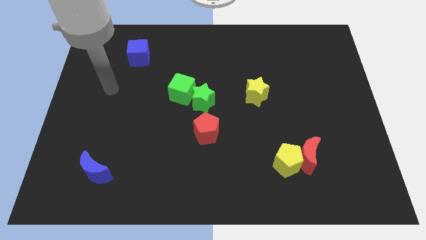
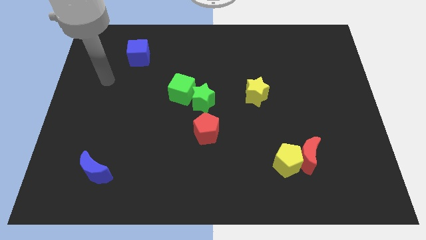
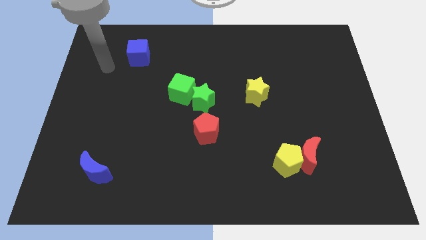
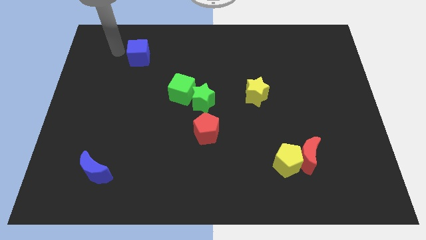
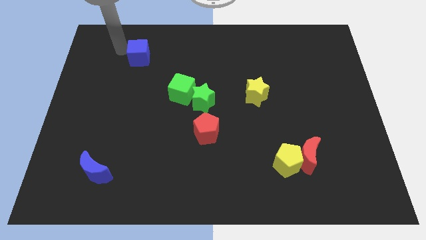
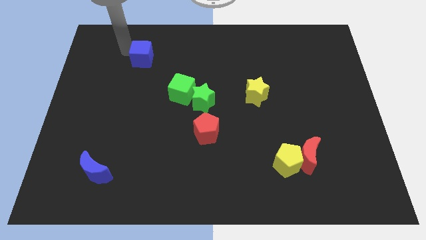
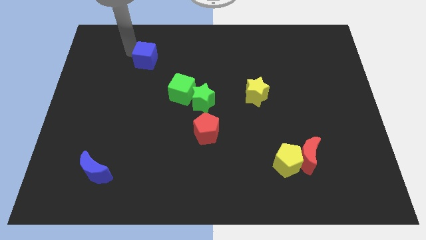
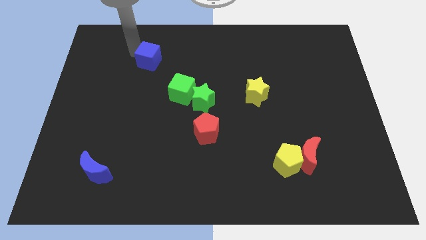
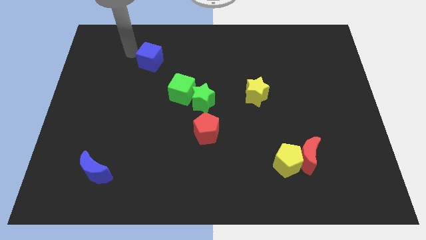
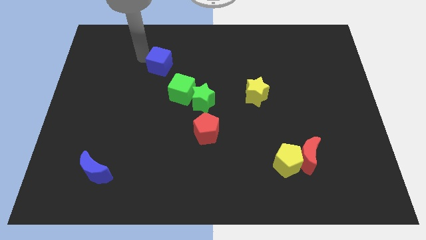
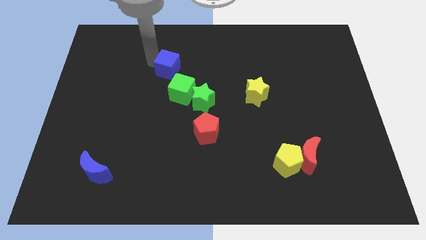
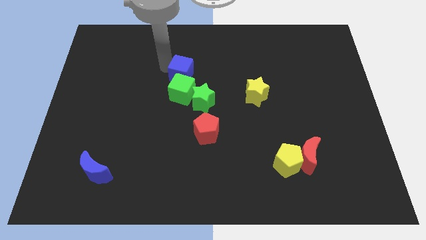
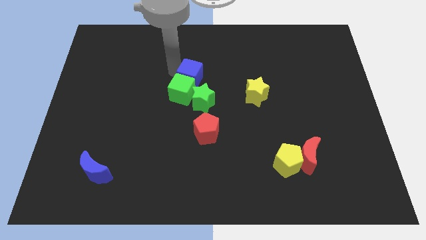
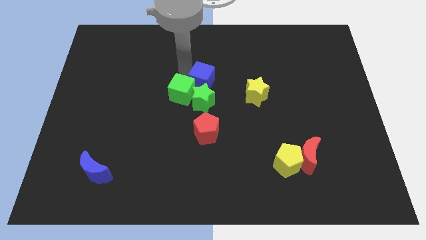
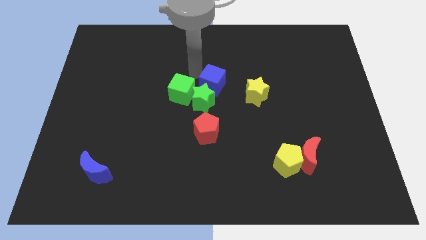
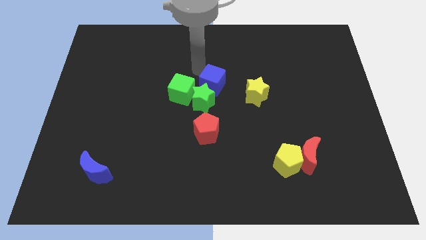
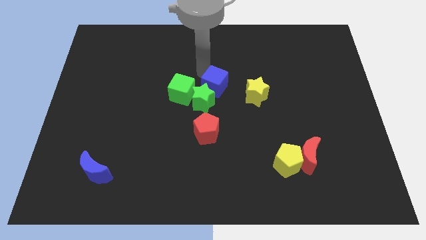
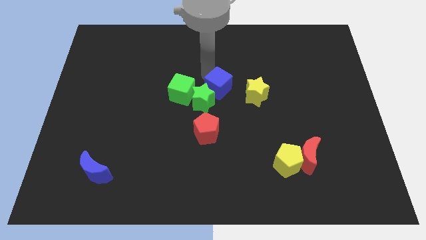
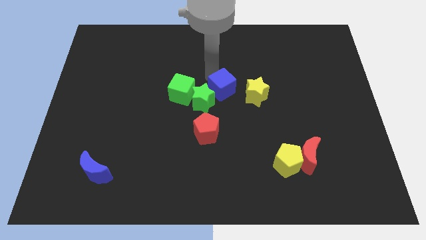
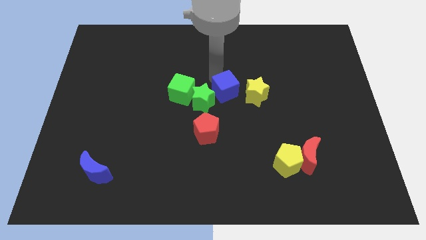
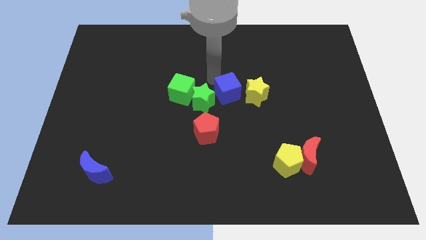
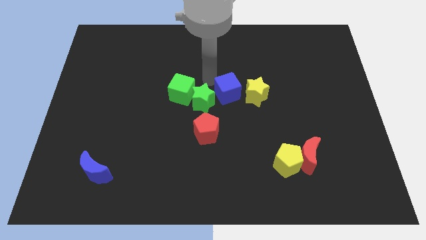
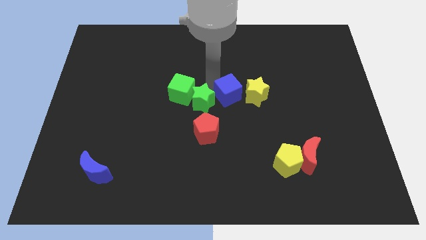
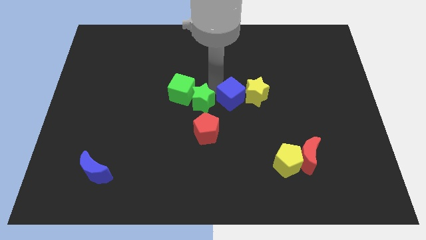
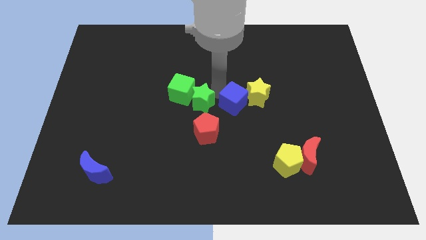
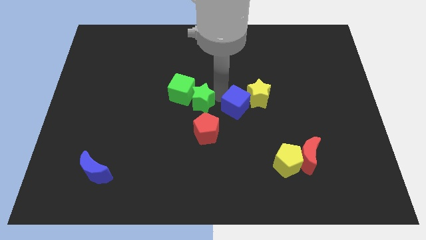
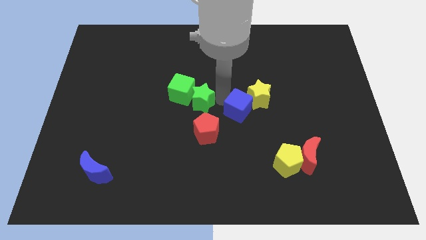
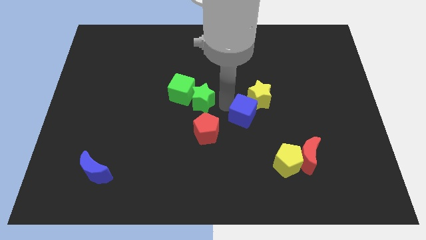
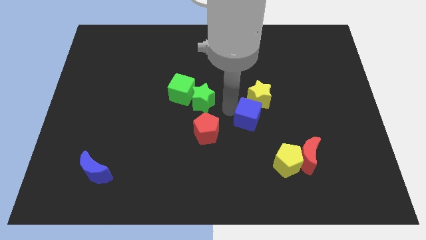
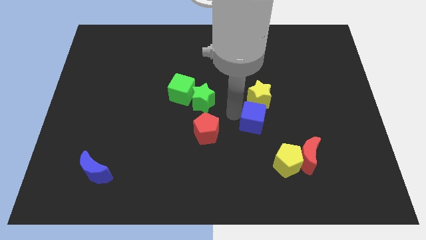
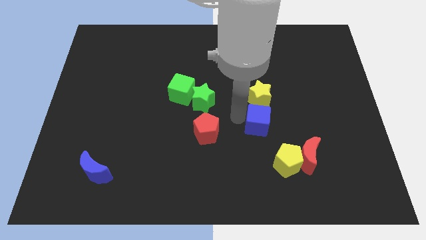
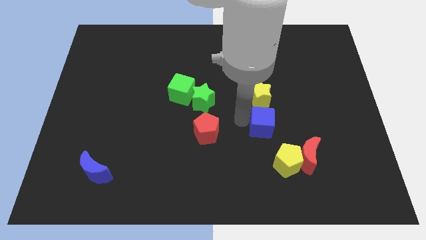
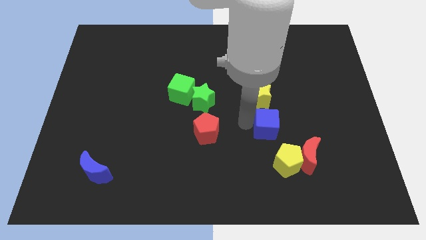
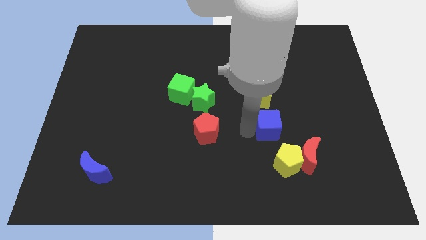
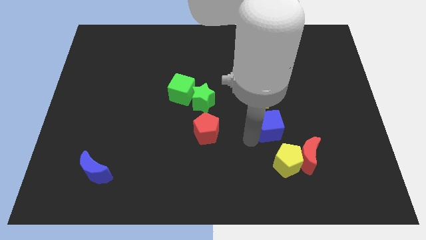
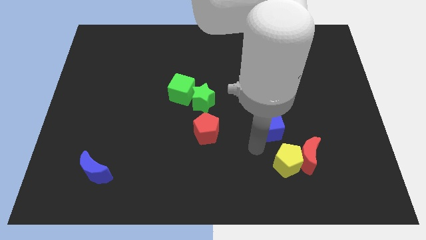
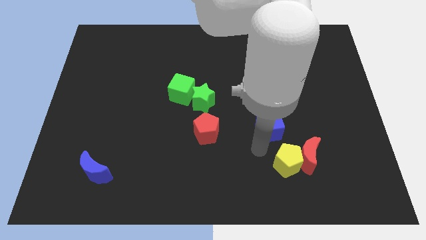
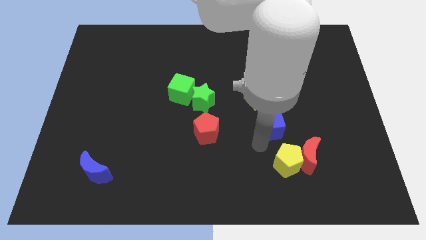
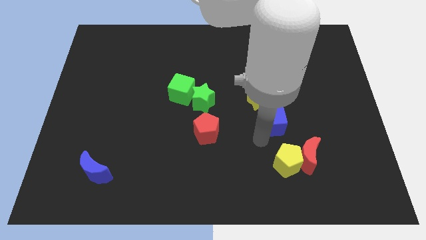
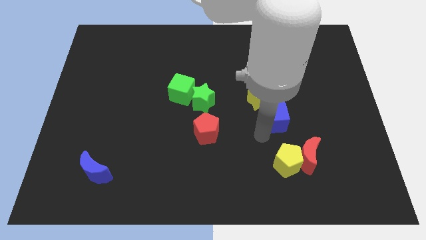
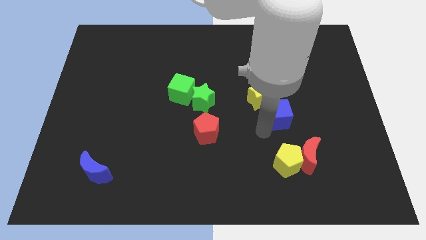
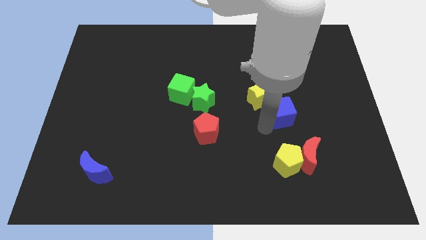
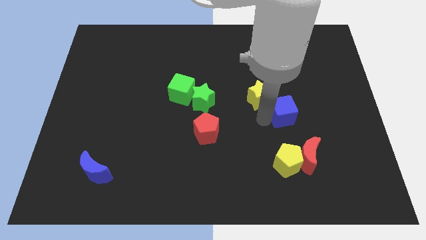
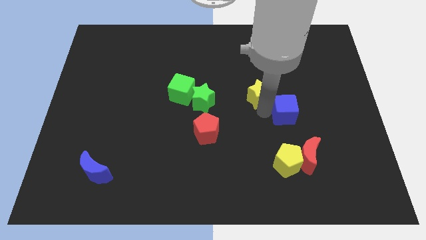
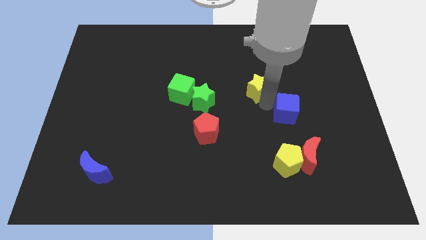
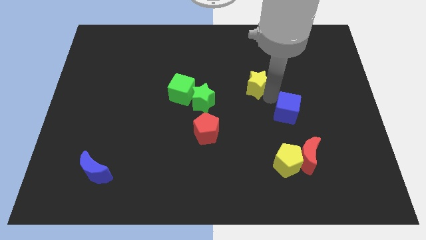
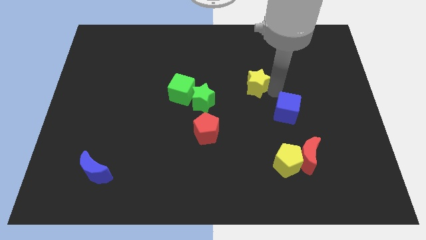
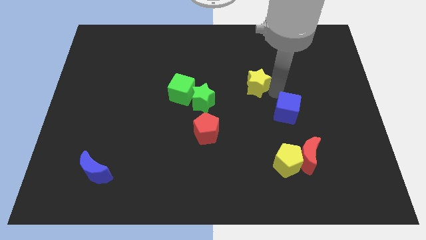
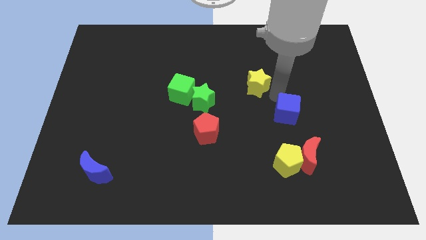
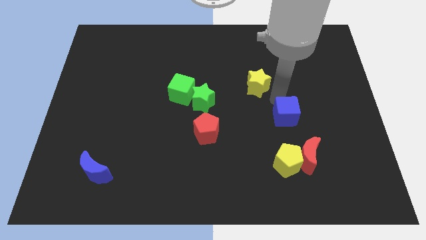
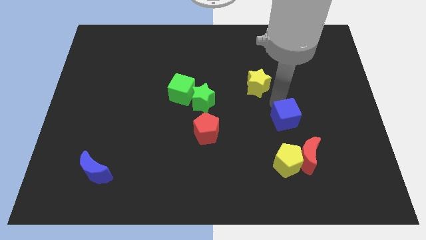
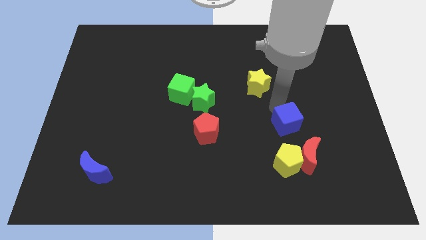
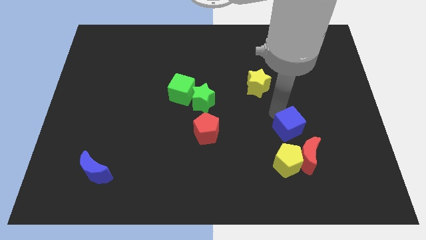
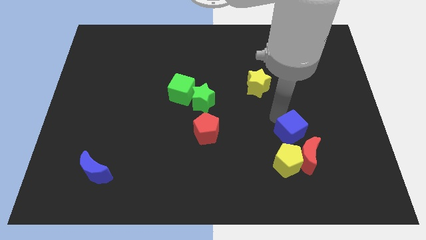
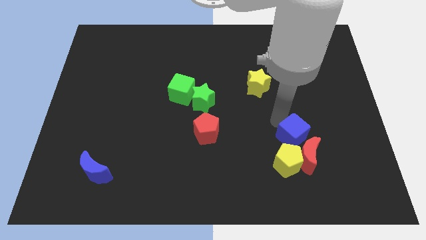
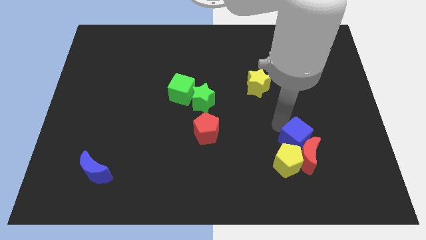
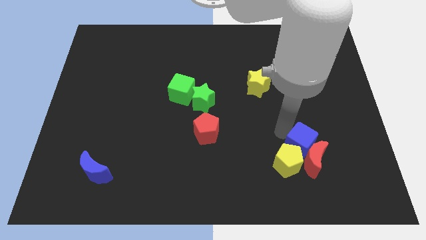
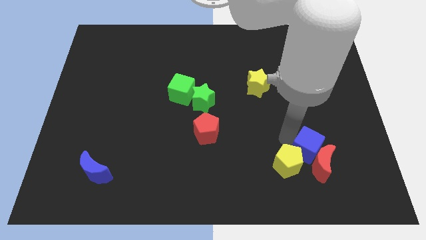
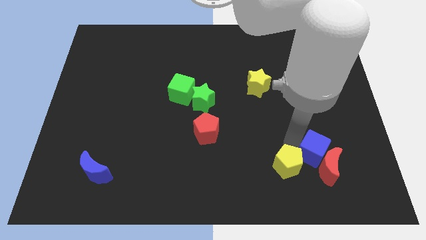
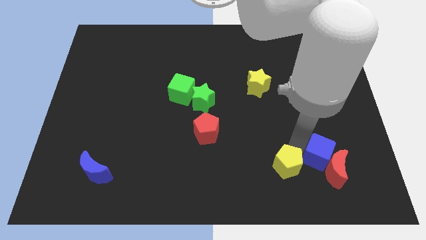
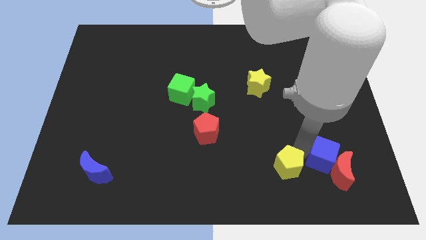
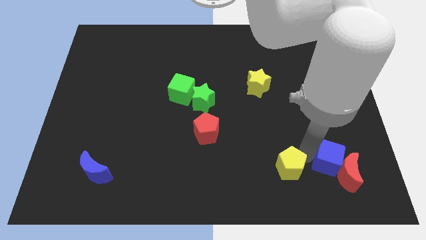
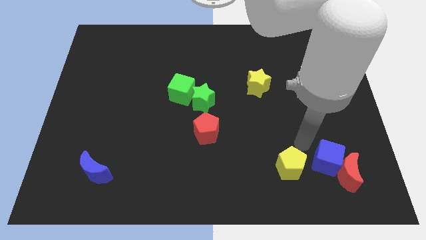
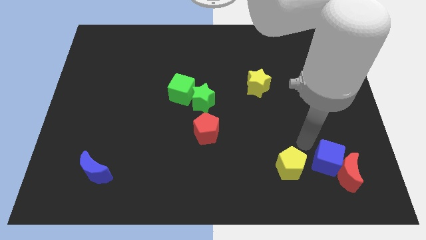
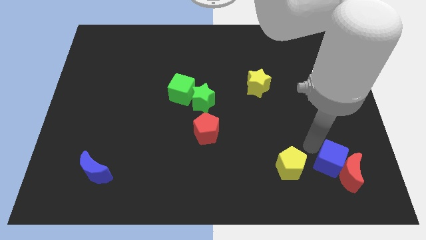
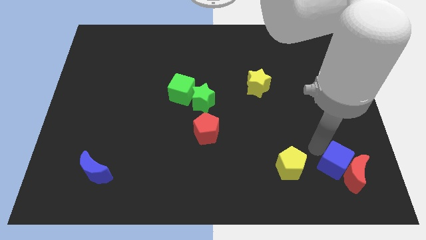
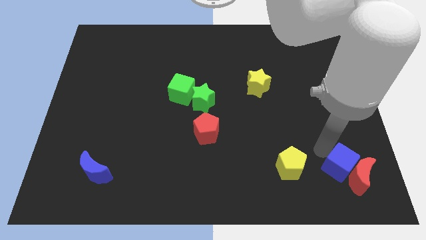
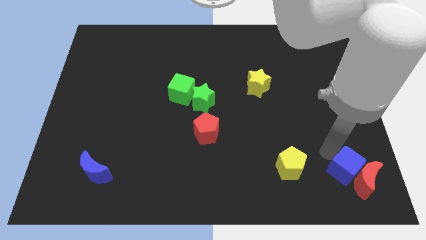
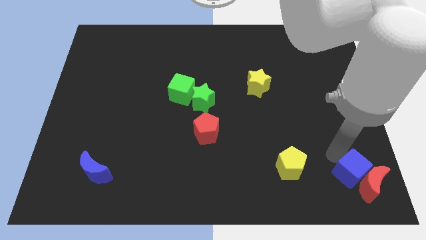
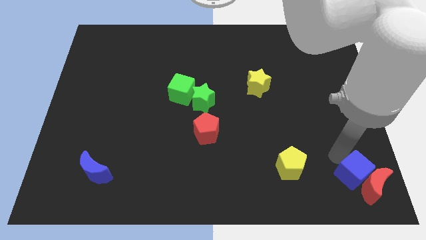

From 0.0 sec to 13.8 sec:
push the blue cube to the bottom right corner
